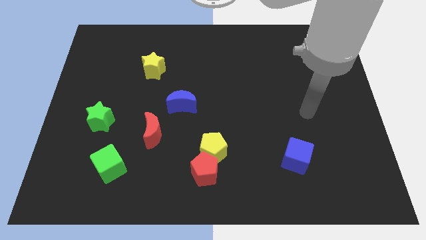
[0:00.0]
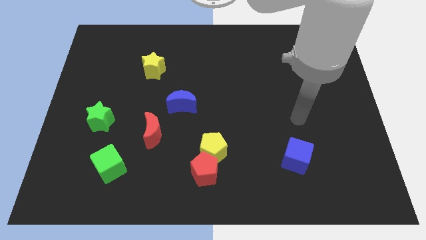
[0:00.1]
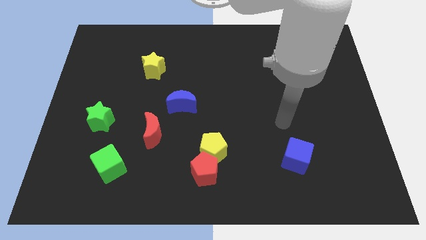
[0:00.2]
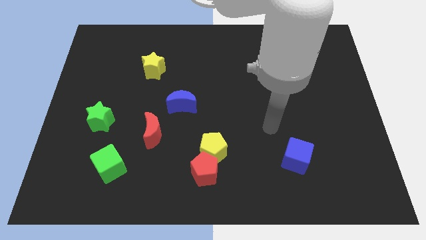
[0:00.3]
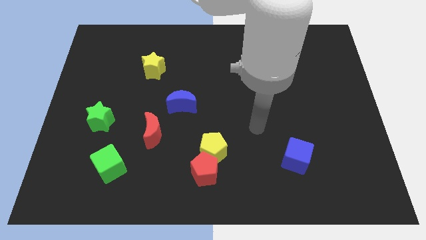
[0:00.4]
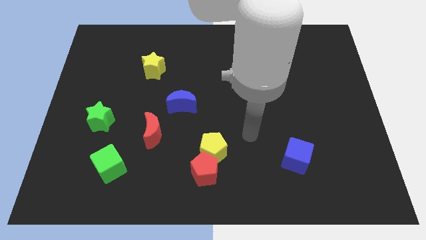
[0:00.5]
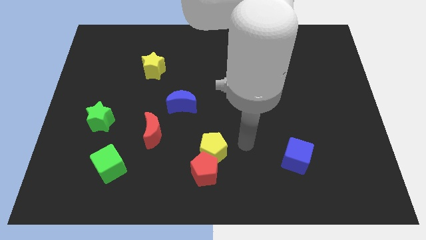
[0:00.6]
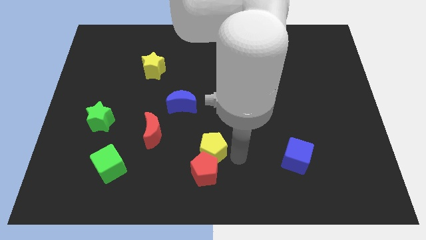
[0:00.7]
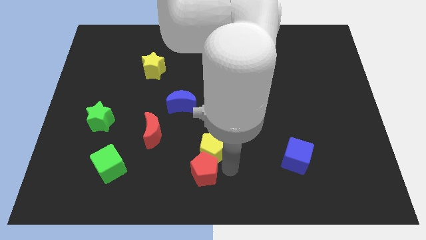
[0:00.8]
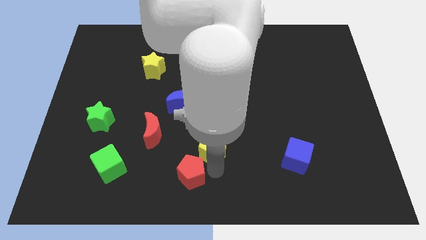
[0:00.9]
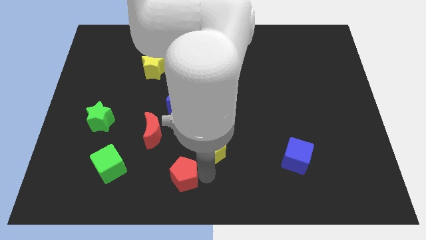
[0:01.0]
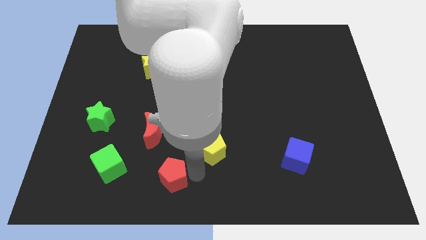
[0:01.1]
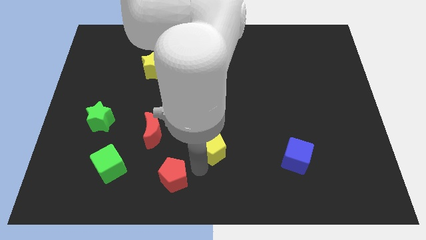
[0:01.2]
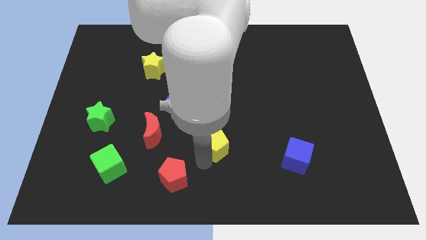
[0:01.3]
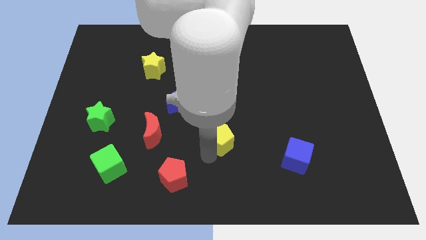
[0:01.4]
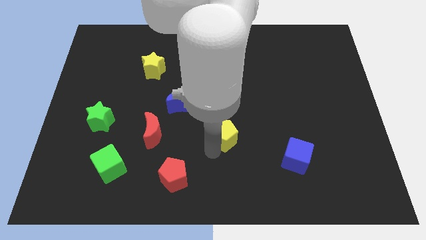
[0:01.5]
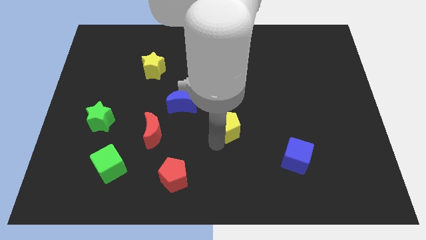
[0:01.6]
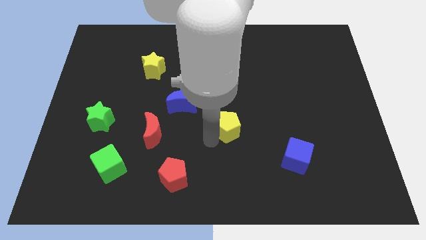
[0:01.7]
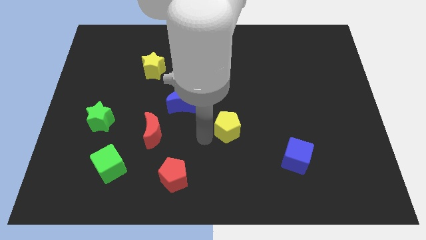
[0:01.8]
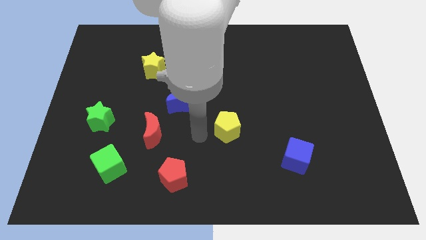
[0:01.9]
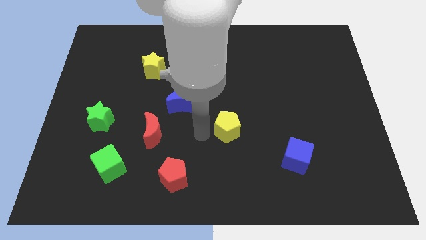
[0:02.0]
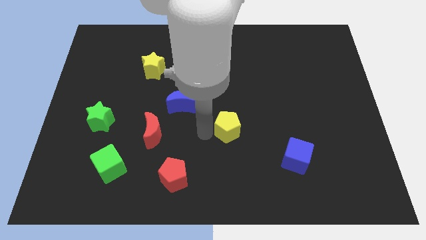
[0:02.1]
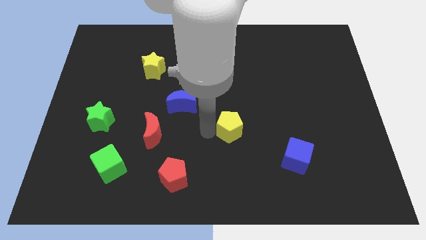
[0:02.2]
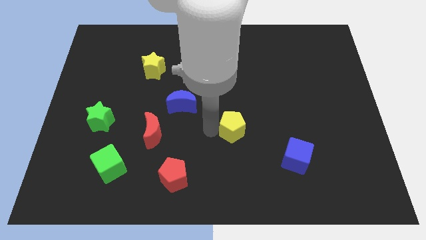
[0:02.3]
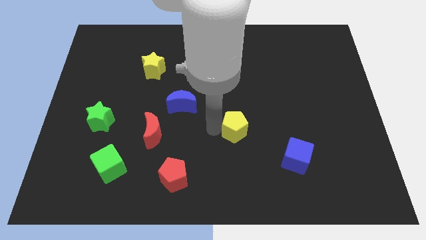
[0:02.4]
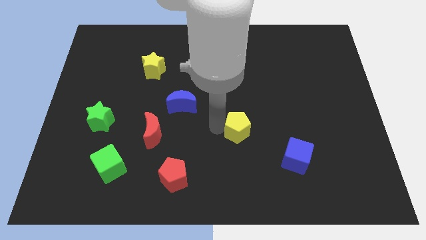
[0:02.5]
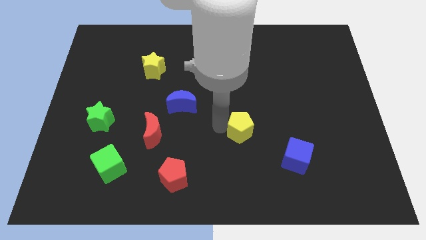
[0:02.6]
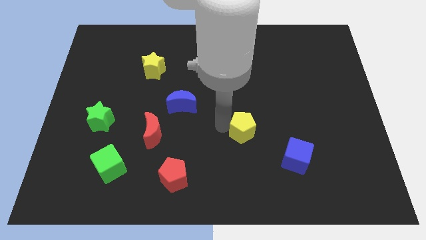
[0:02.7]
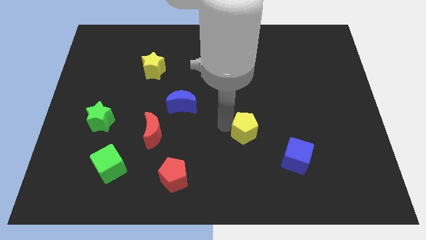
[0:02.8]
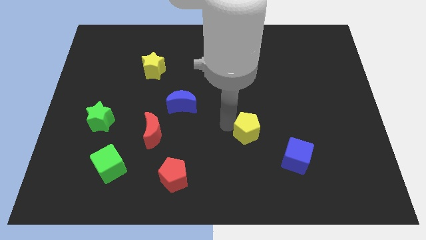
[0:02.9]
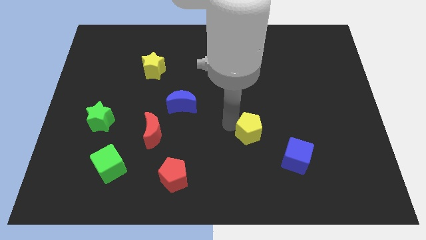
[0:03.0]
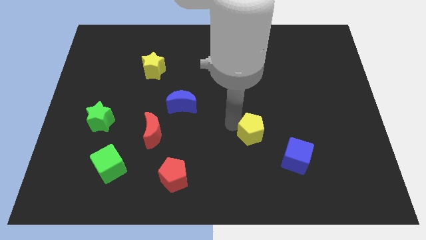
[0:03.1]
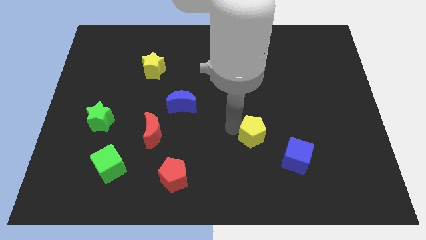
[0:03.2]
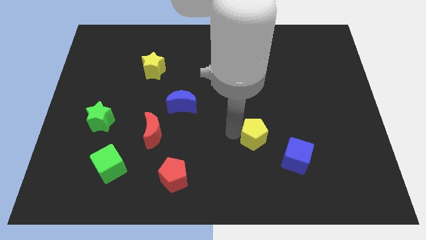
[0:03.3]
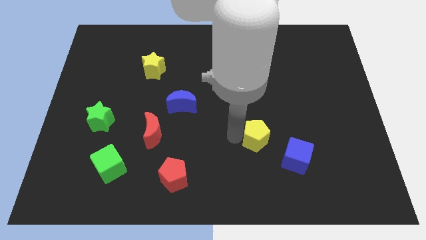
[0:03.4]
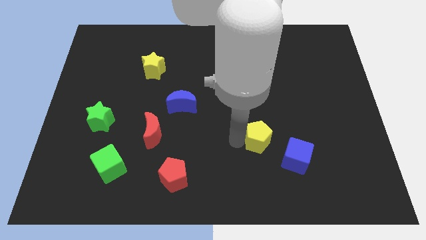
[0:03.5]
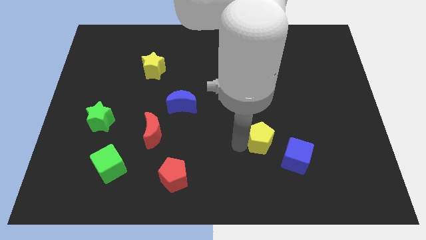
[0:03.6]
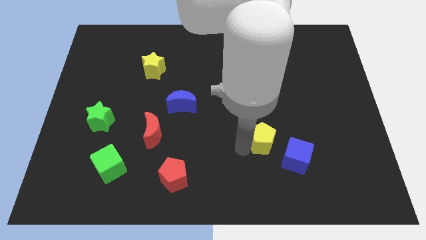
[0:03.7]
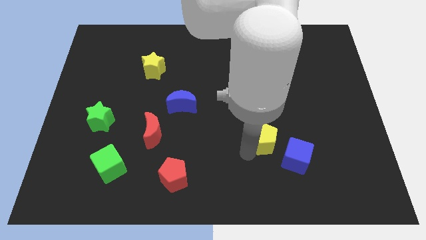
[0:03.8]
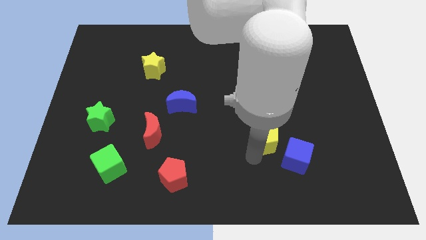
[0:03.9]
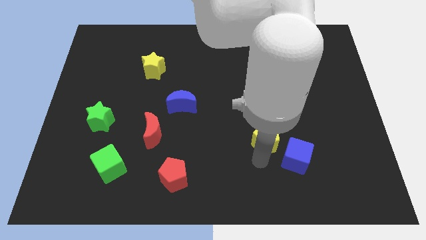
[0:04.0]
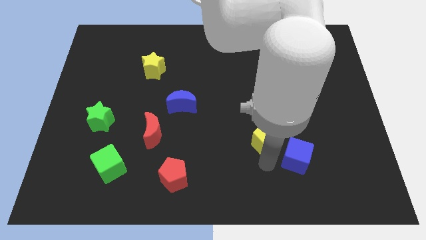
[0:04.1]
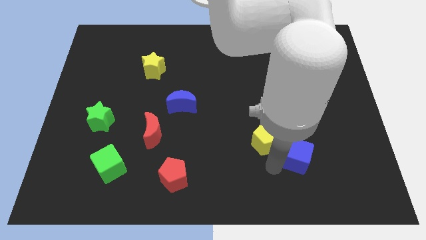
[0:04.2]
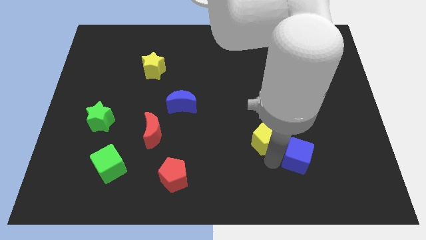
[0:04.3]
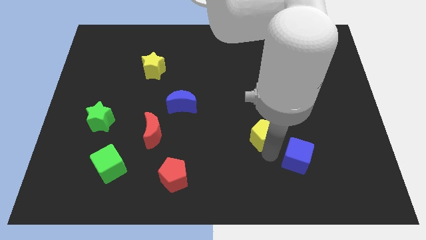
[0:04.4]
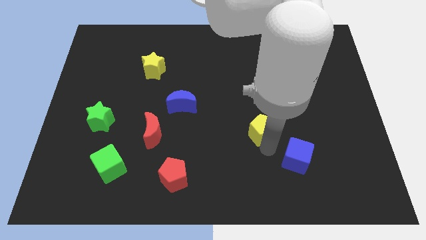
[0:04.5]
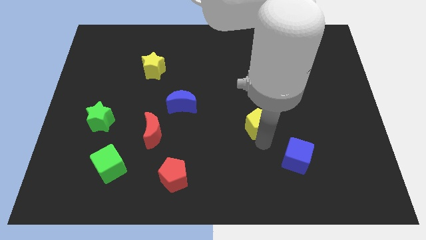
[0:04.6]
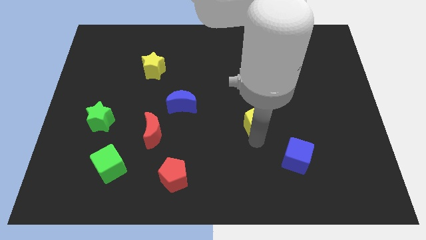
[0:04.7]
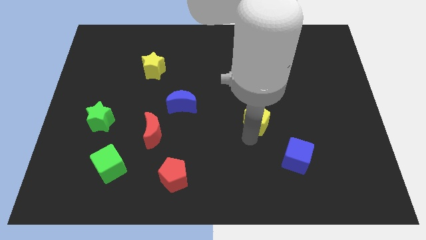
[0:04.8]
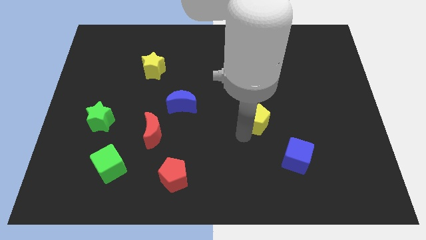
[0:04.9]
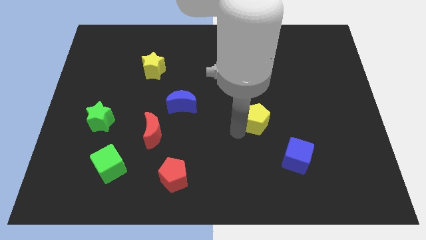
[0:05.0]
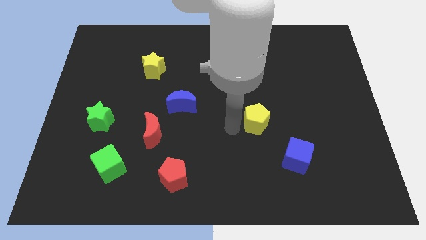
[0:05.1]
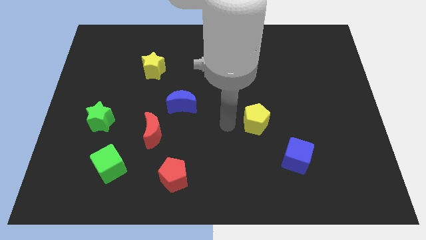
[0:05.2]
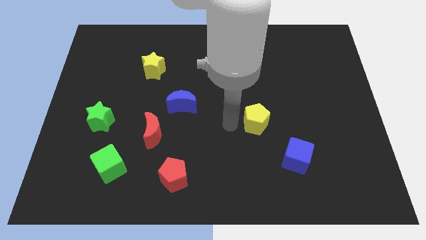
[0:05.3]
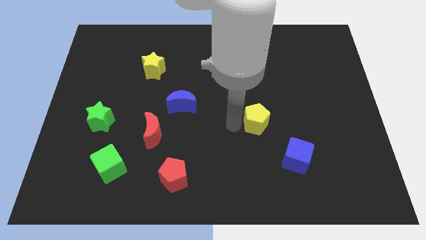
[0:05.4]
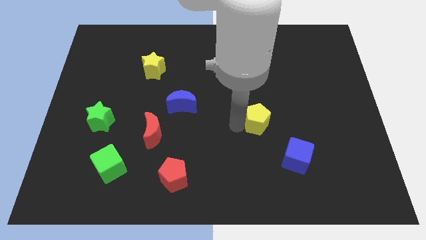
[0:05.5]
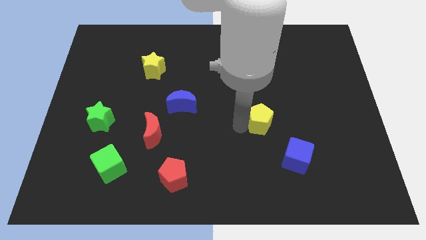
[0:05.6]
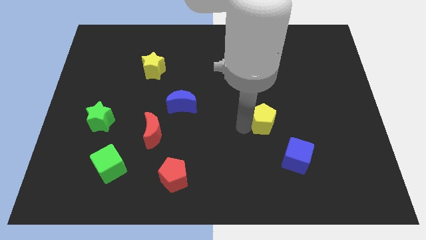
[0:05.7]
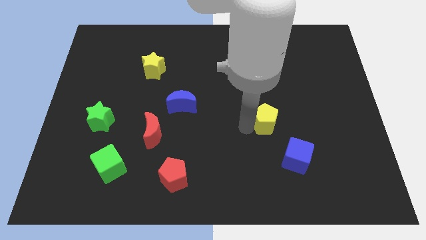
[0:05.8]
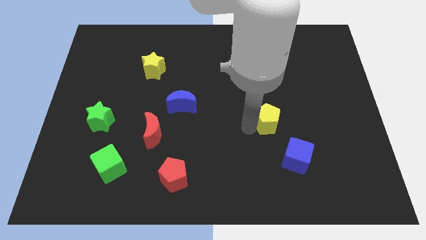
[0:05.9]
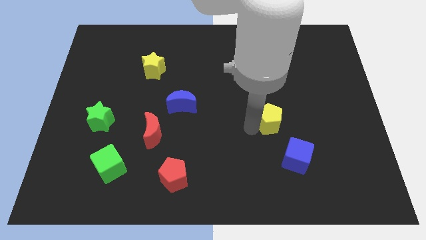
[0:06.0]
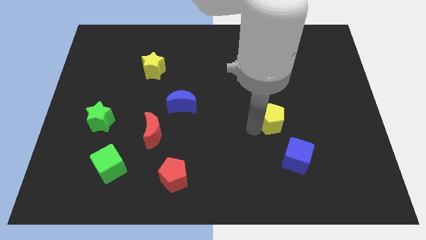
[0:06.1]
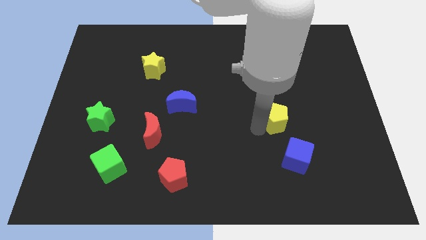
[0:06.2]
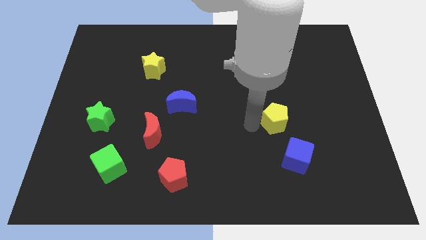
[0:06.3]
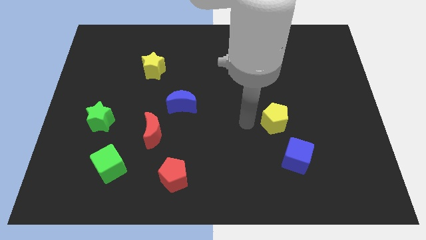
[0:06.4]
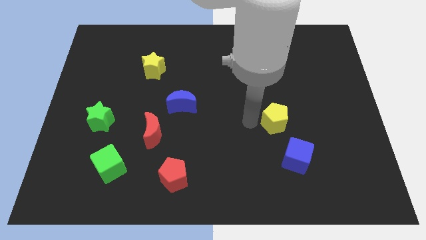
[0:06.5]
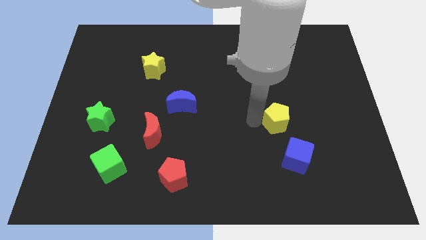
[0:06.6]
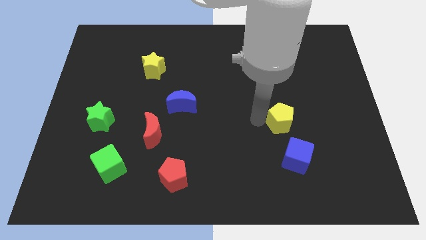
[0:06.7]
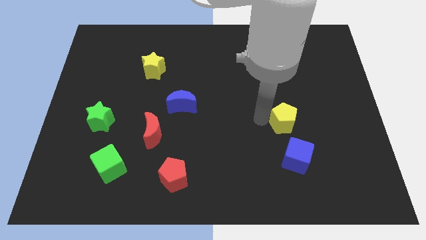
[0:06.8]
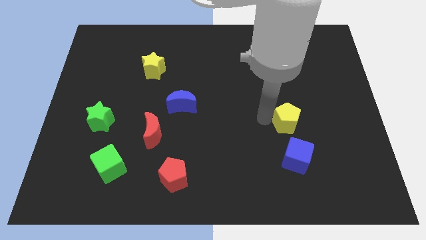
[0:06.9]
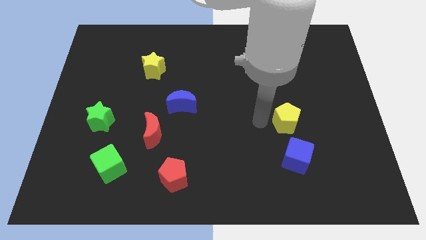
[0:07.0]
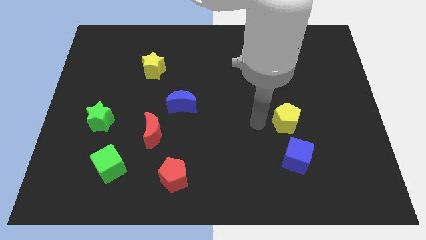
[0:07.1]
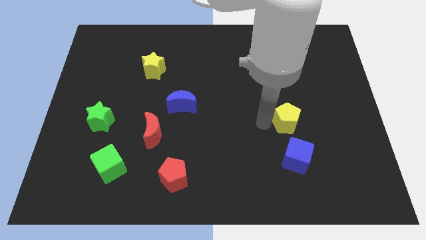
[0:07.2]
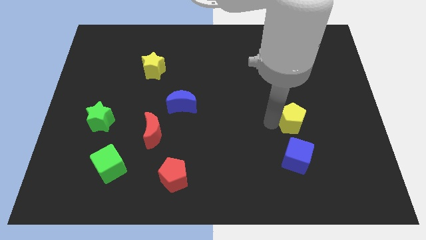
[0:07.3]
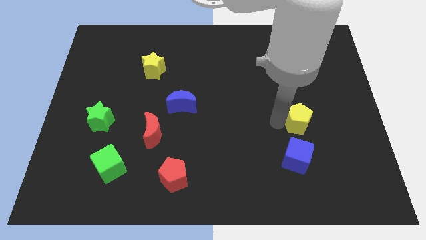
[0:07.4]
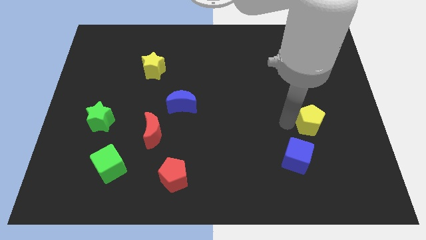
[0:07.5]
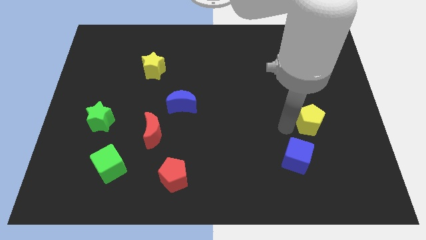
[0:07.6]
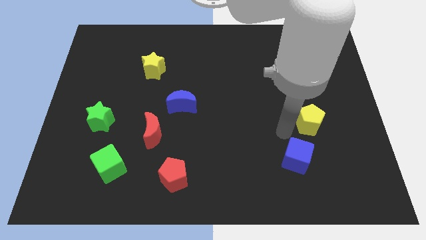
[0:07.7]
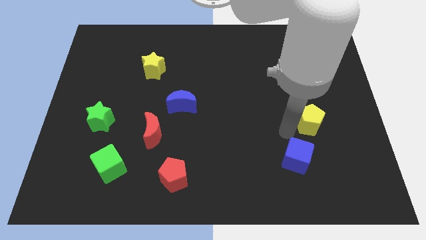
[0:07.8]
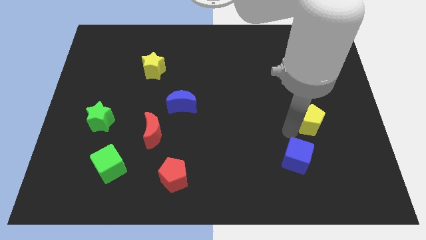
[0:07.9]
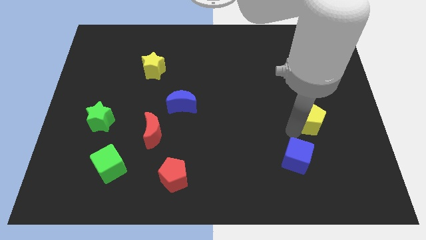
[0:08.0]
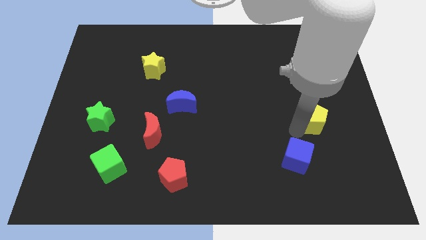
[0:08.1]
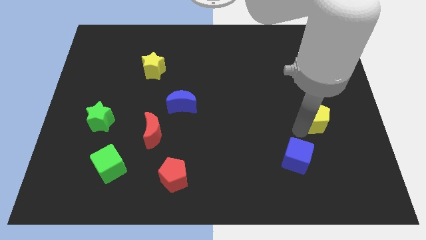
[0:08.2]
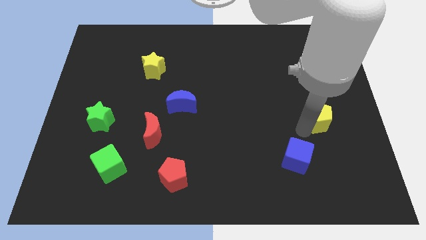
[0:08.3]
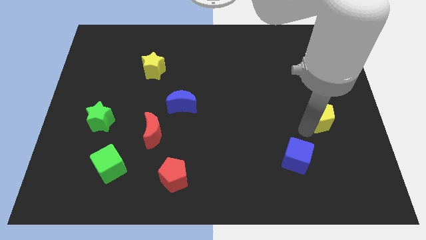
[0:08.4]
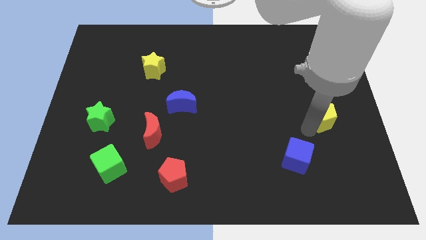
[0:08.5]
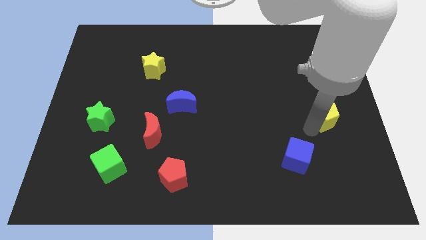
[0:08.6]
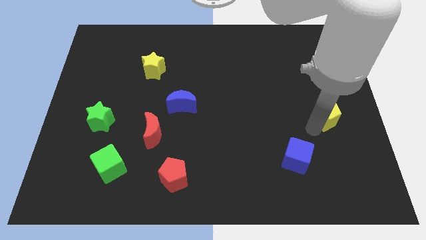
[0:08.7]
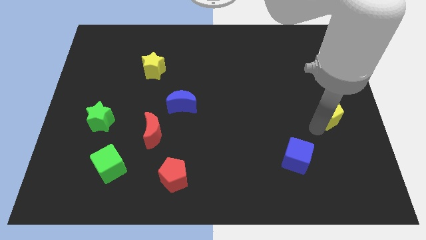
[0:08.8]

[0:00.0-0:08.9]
slide the yellow pentagon to the right side
